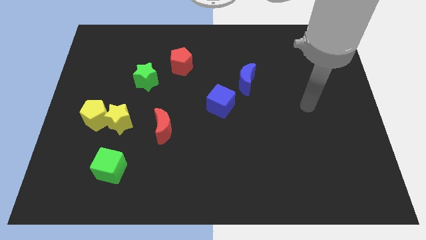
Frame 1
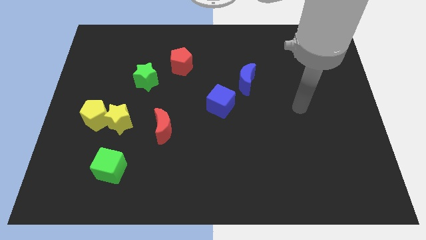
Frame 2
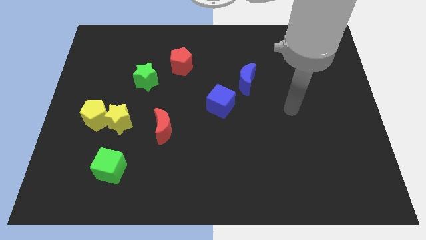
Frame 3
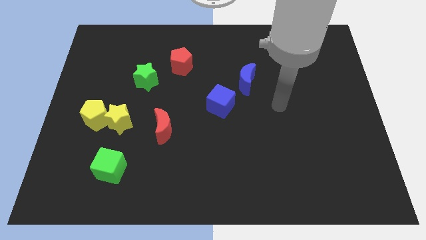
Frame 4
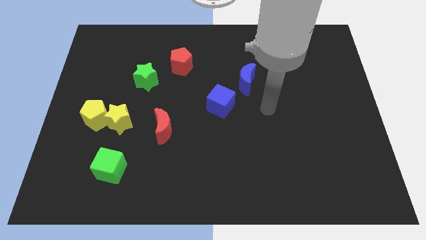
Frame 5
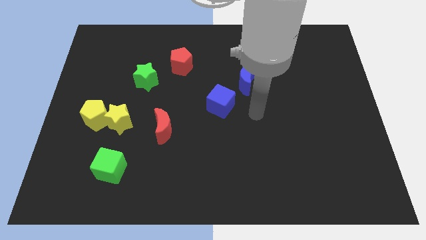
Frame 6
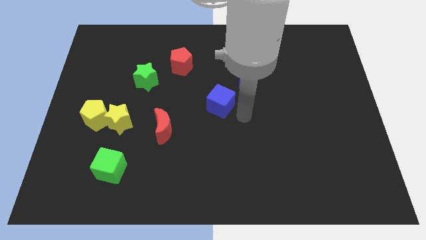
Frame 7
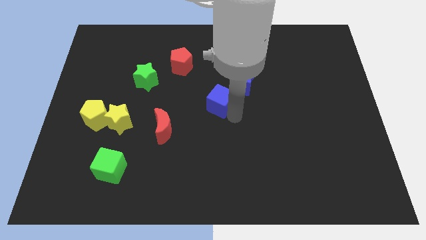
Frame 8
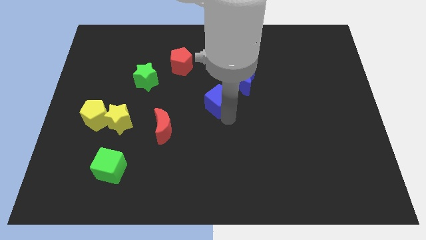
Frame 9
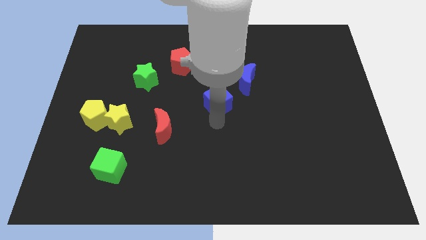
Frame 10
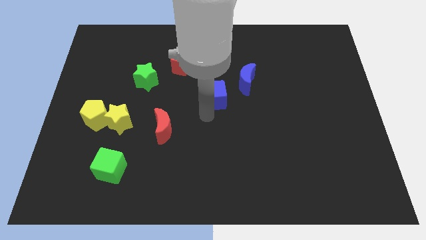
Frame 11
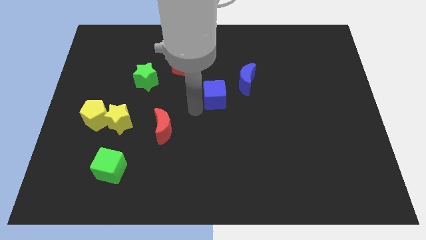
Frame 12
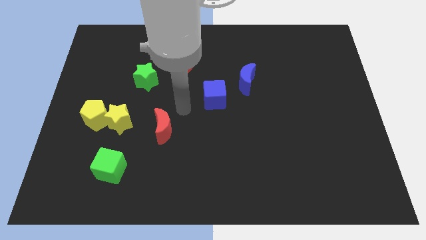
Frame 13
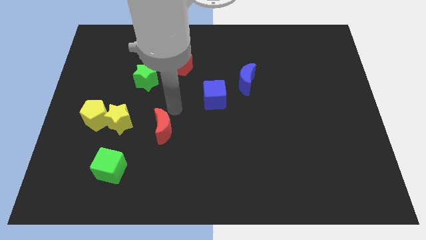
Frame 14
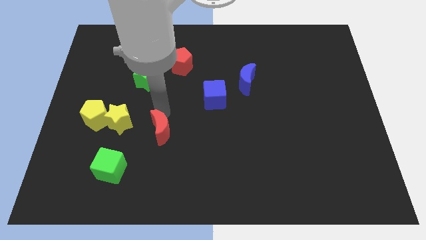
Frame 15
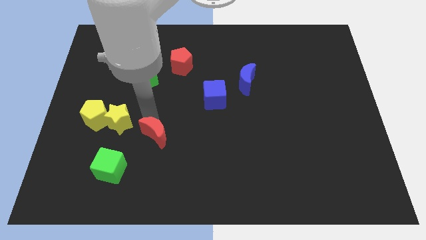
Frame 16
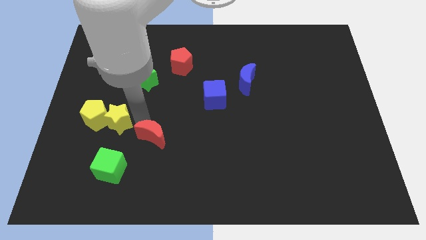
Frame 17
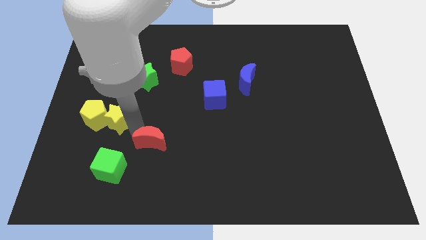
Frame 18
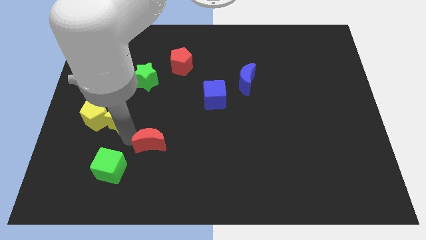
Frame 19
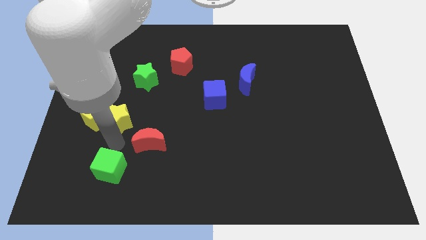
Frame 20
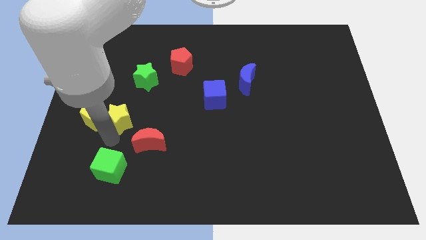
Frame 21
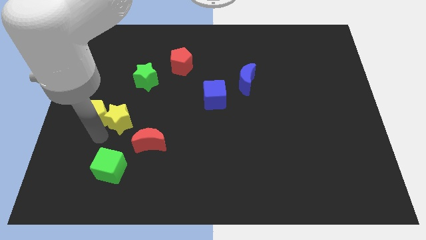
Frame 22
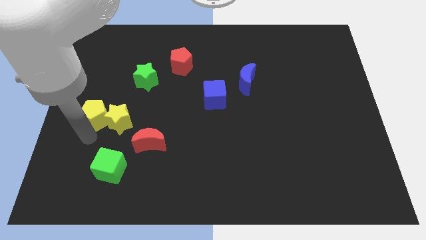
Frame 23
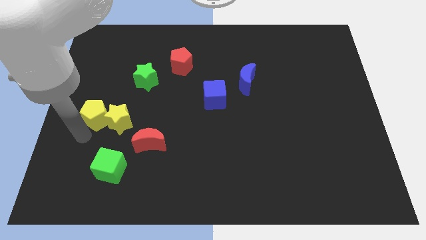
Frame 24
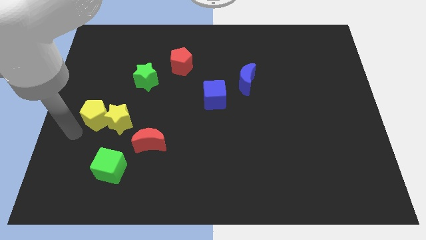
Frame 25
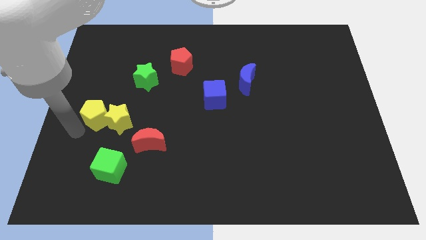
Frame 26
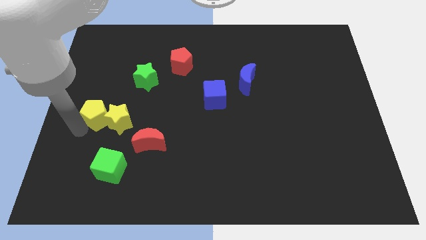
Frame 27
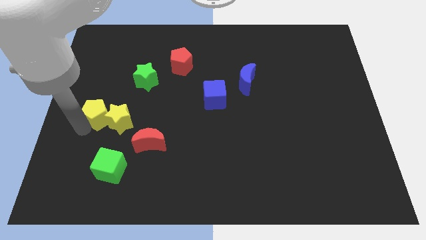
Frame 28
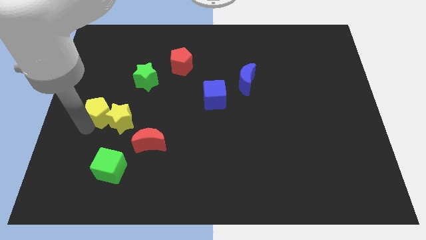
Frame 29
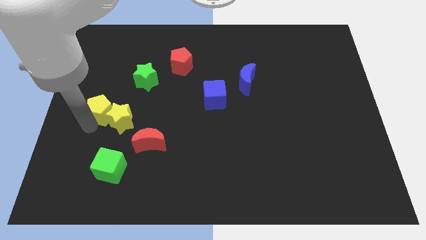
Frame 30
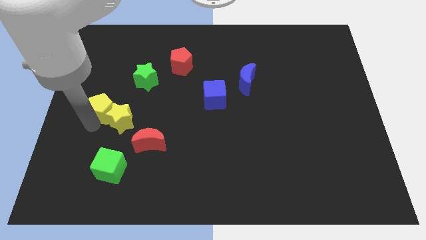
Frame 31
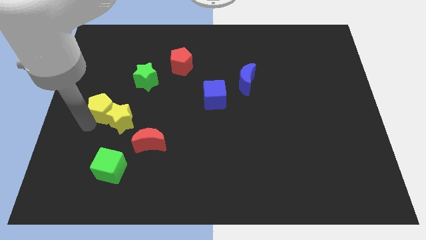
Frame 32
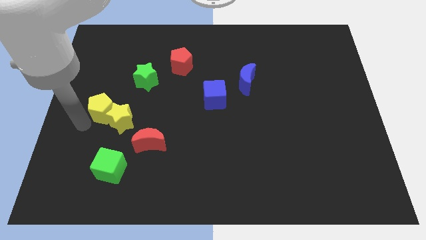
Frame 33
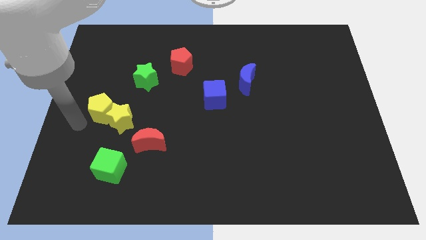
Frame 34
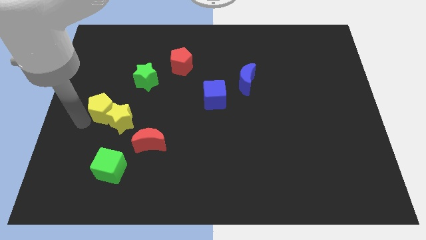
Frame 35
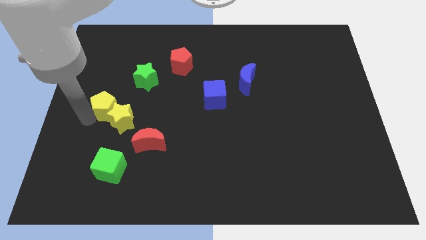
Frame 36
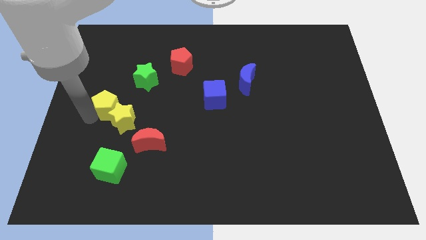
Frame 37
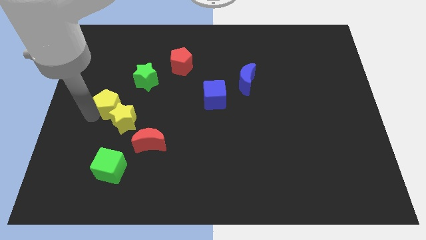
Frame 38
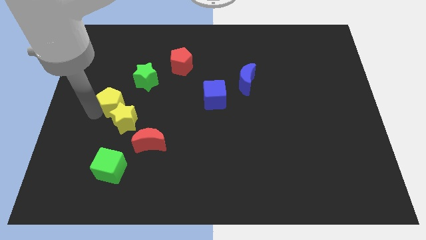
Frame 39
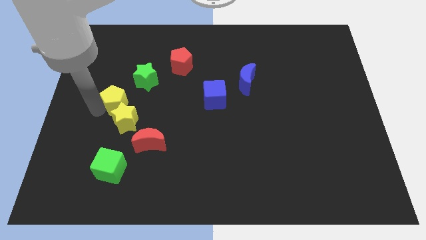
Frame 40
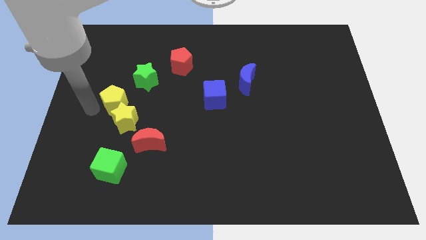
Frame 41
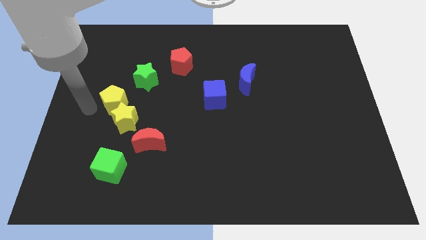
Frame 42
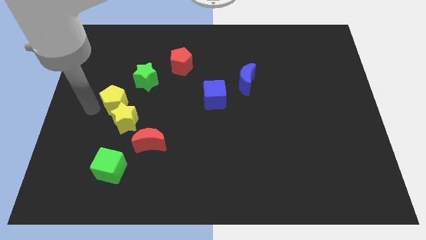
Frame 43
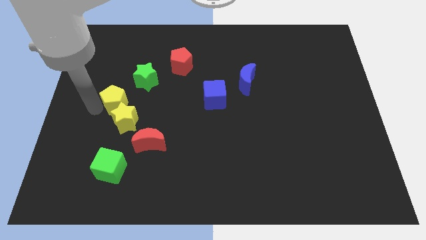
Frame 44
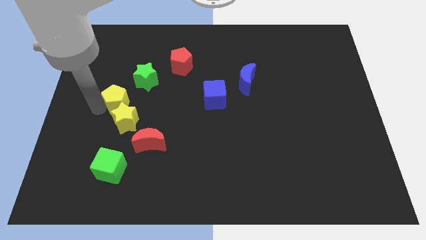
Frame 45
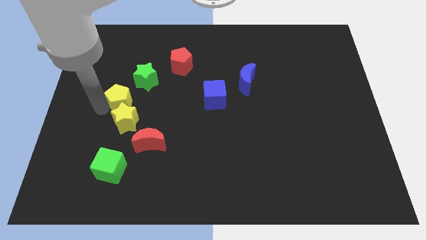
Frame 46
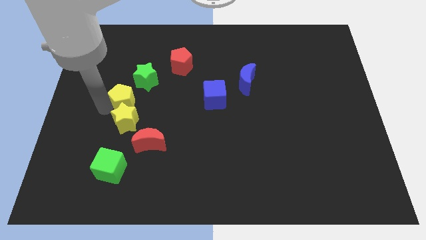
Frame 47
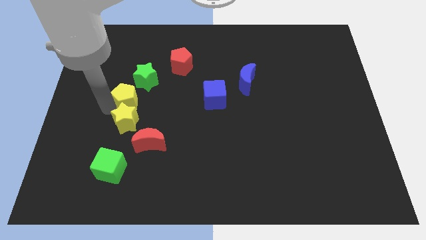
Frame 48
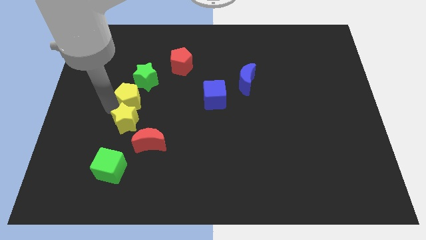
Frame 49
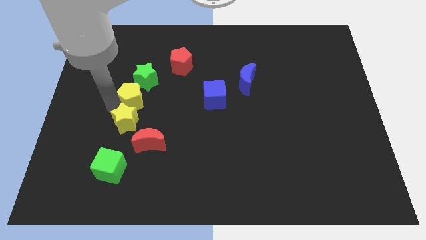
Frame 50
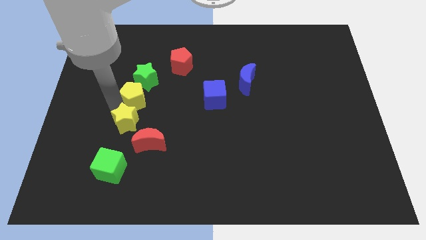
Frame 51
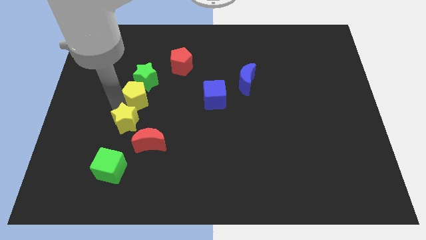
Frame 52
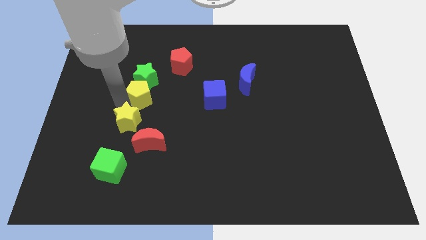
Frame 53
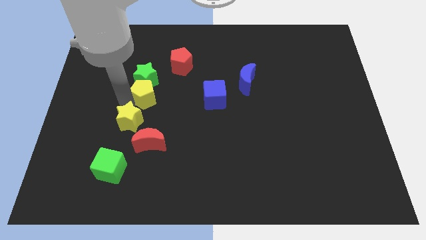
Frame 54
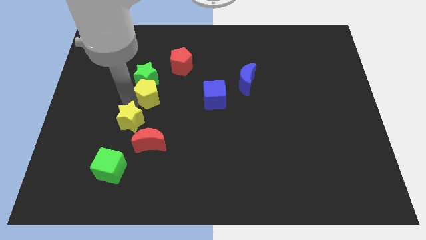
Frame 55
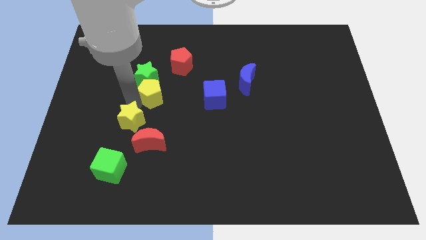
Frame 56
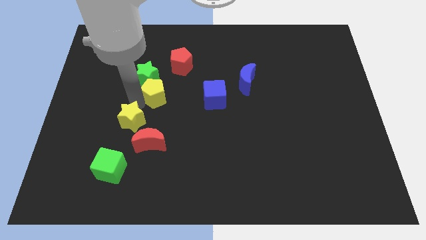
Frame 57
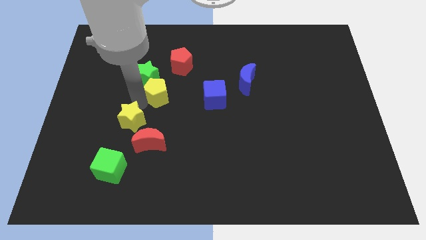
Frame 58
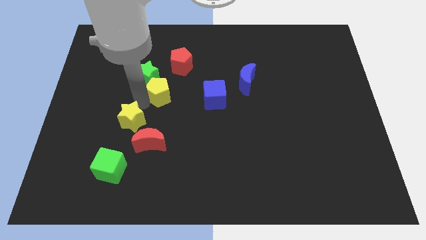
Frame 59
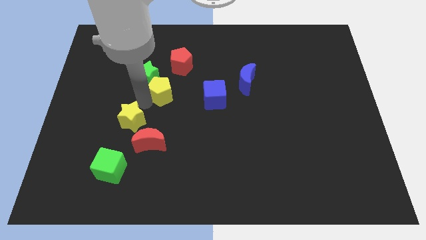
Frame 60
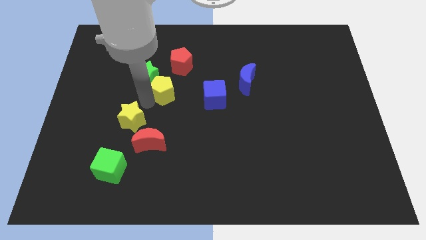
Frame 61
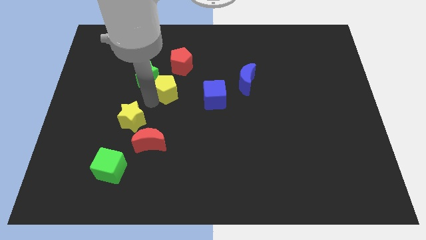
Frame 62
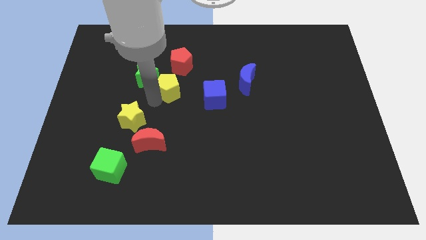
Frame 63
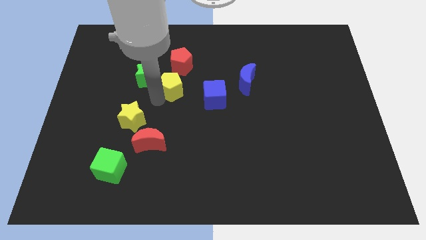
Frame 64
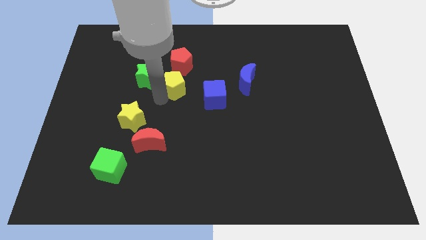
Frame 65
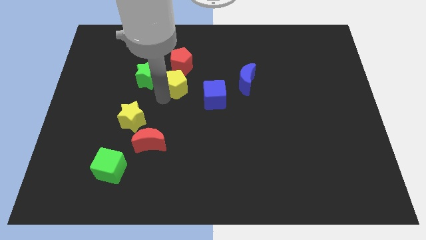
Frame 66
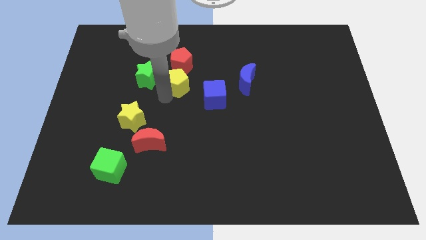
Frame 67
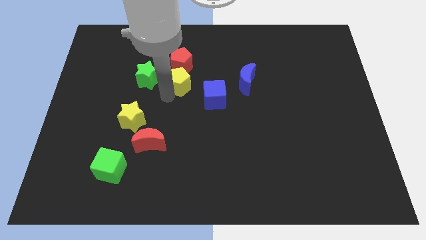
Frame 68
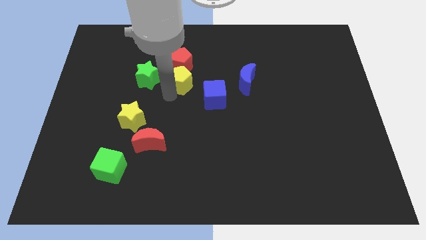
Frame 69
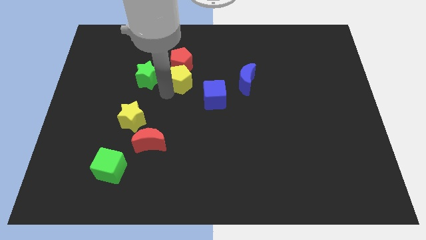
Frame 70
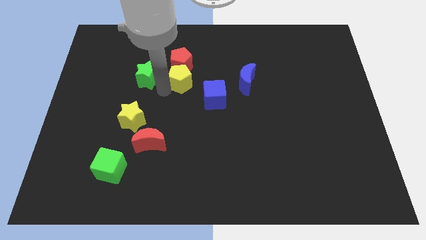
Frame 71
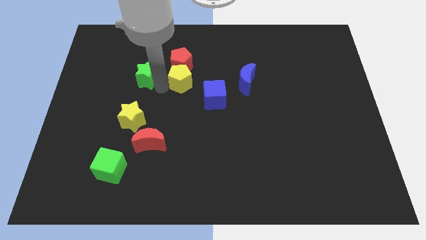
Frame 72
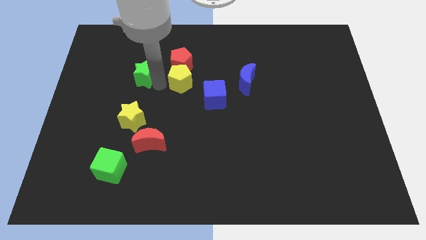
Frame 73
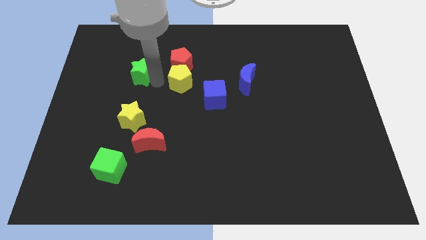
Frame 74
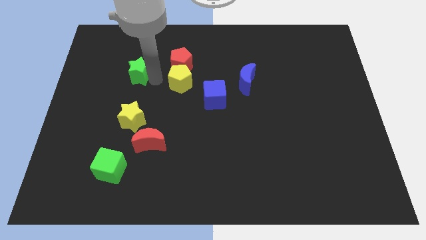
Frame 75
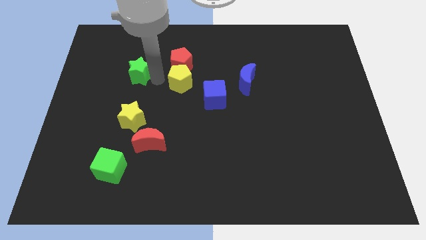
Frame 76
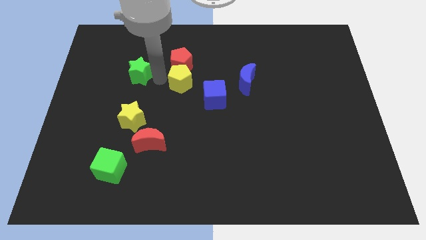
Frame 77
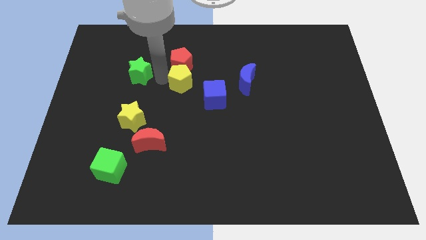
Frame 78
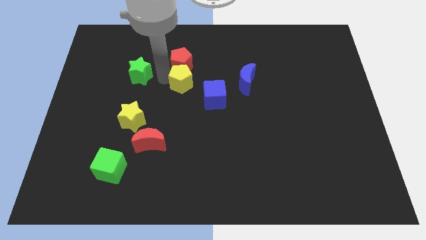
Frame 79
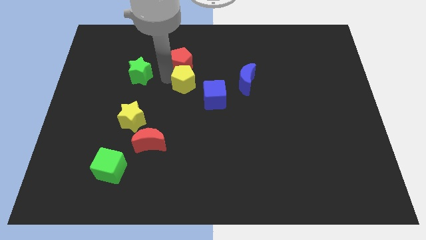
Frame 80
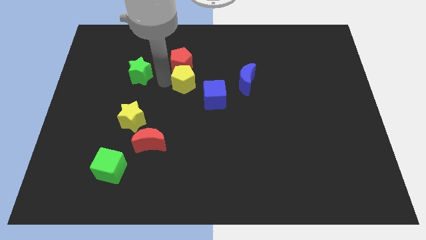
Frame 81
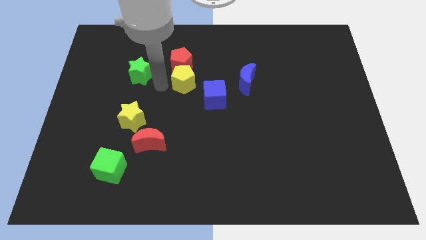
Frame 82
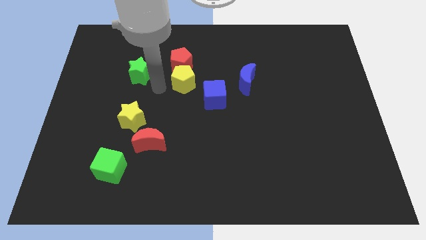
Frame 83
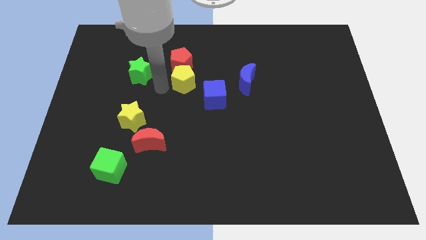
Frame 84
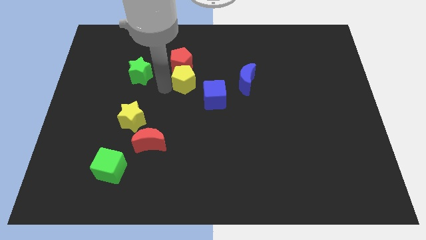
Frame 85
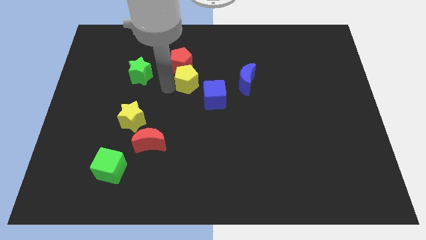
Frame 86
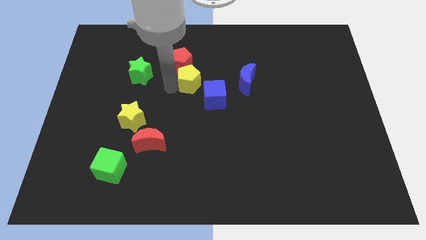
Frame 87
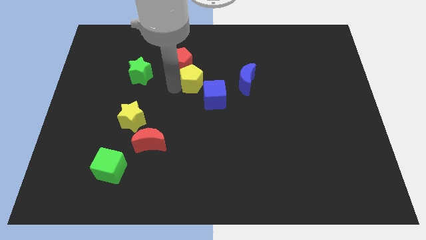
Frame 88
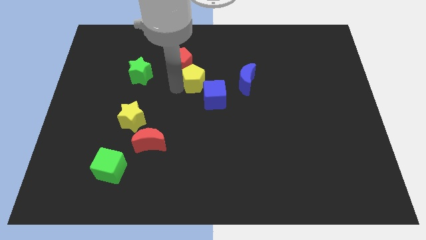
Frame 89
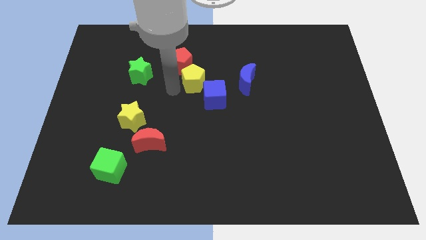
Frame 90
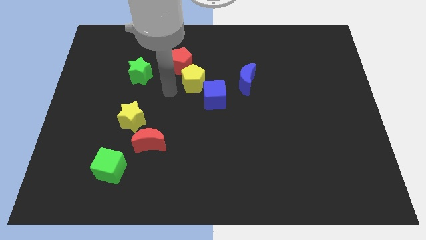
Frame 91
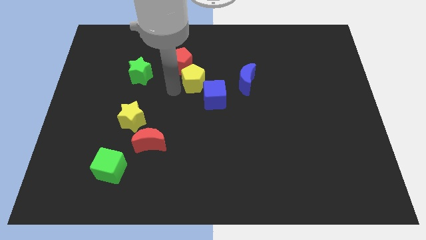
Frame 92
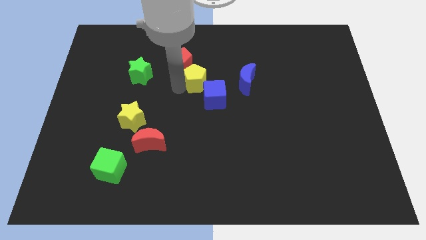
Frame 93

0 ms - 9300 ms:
slide the yellow pentagon to the top of the blue cube
